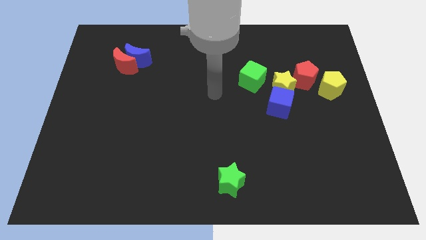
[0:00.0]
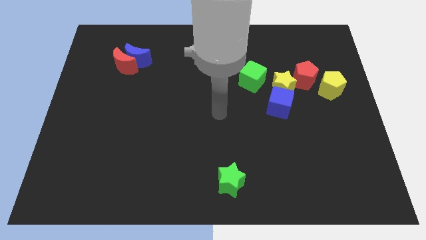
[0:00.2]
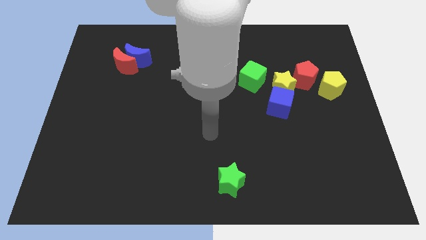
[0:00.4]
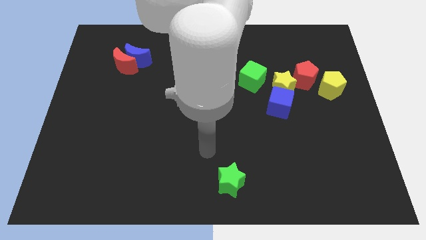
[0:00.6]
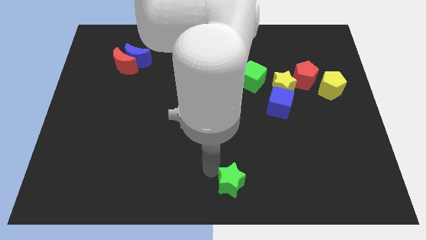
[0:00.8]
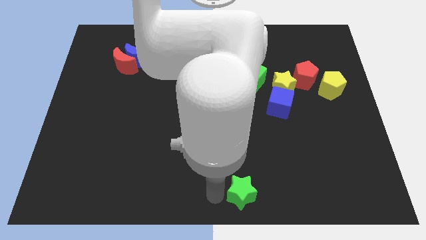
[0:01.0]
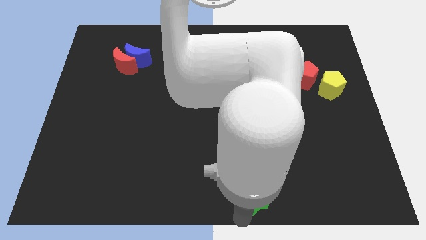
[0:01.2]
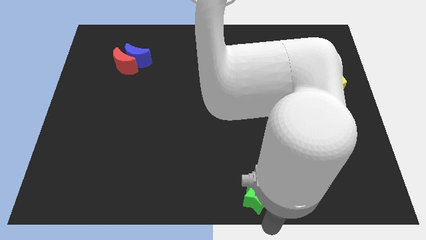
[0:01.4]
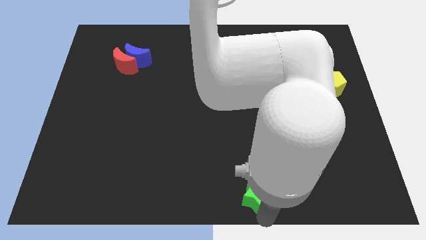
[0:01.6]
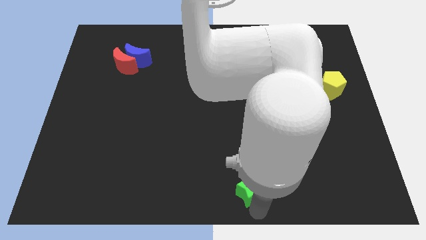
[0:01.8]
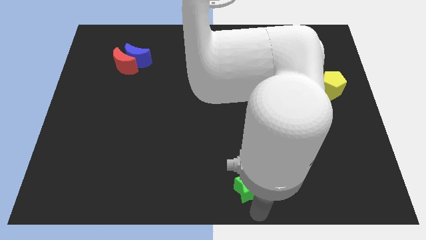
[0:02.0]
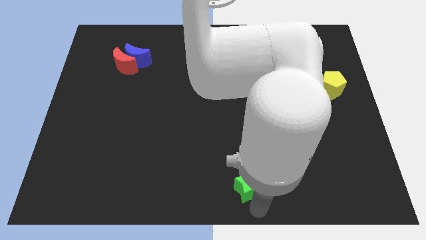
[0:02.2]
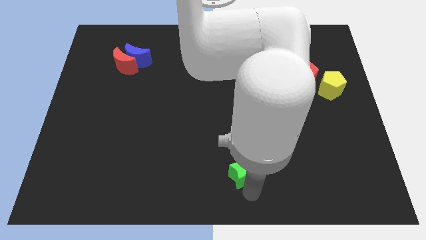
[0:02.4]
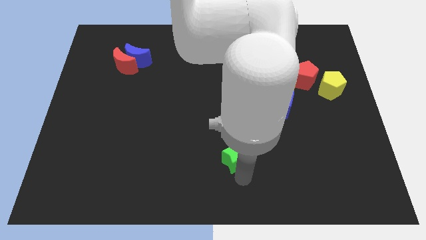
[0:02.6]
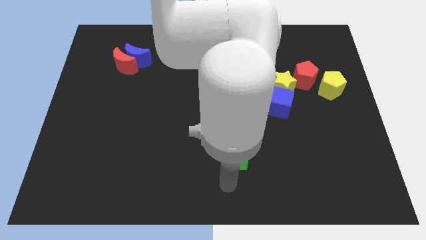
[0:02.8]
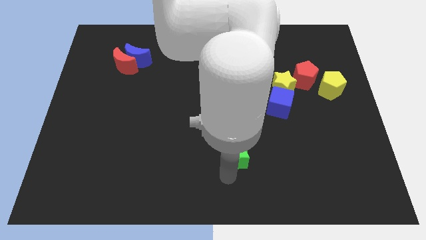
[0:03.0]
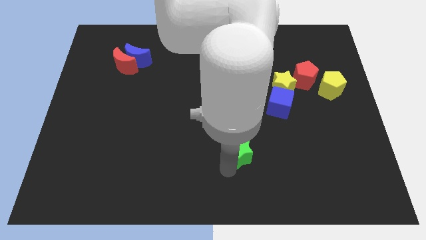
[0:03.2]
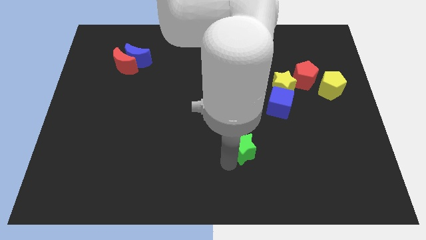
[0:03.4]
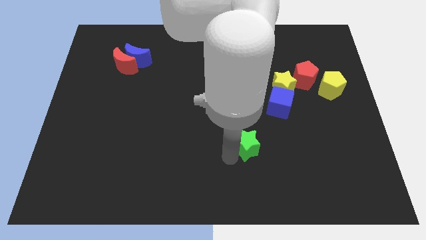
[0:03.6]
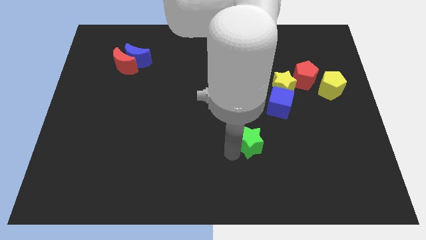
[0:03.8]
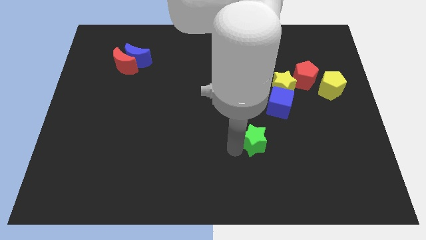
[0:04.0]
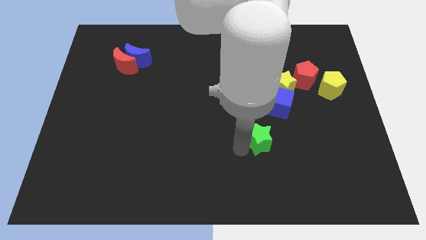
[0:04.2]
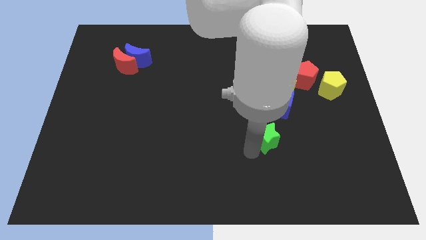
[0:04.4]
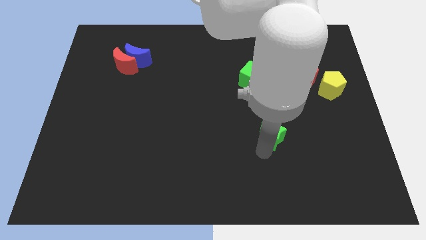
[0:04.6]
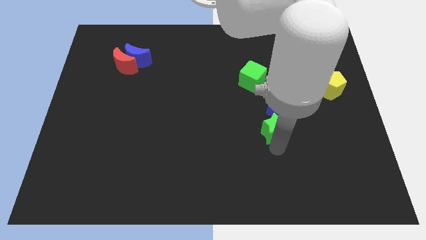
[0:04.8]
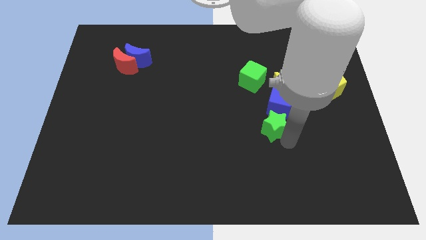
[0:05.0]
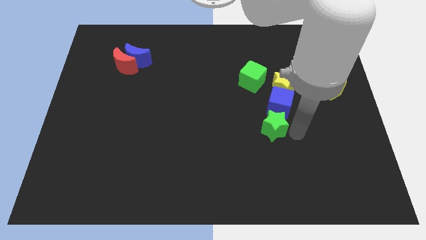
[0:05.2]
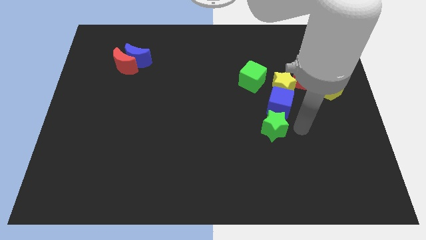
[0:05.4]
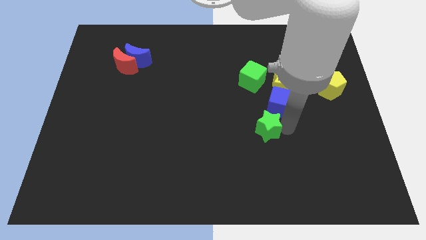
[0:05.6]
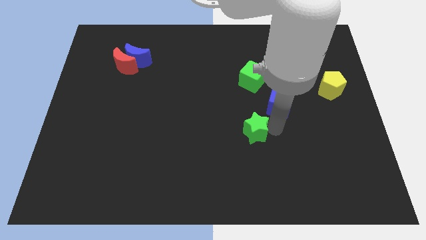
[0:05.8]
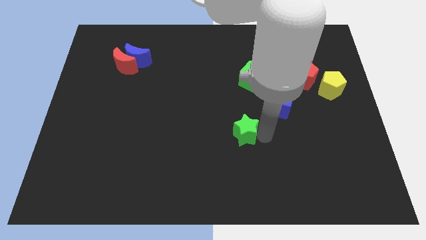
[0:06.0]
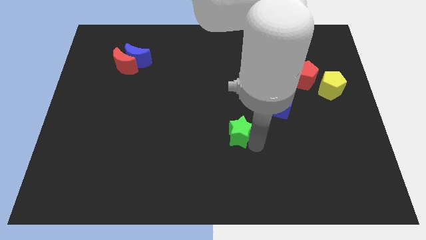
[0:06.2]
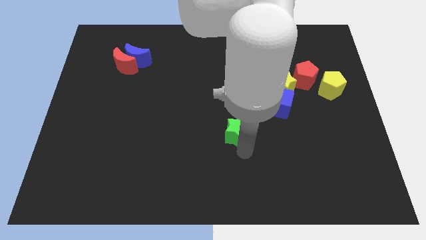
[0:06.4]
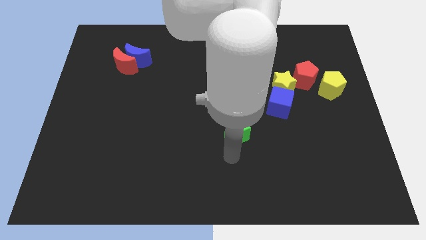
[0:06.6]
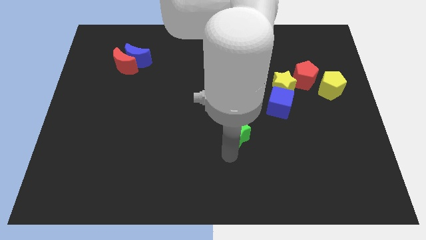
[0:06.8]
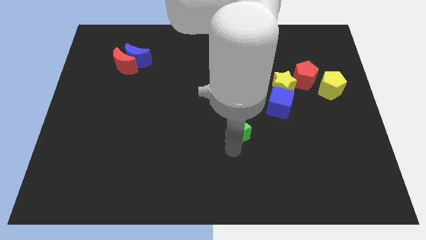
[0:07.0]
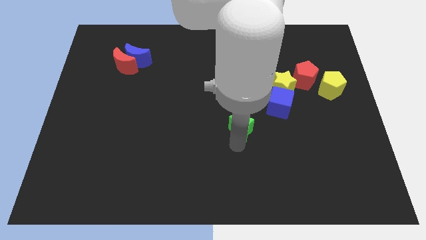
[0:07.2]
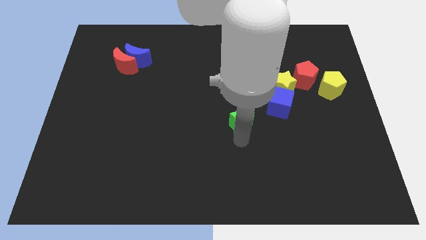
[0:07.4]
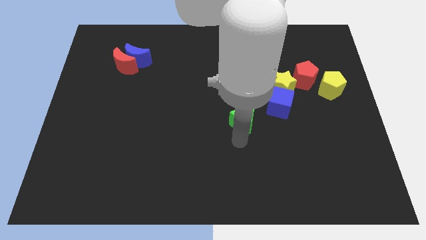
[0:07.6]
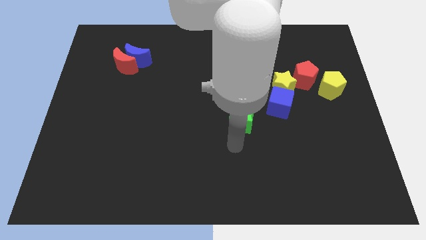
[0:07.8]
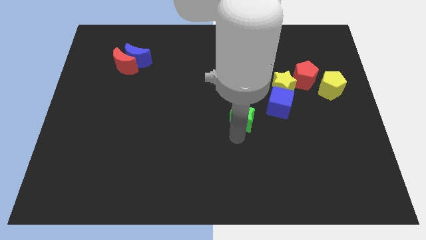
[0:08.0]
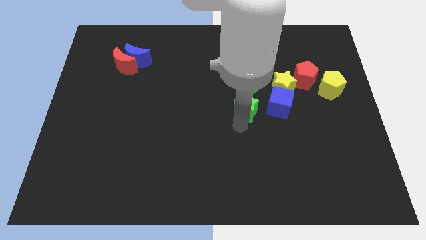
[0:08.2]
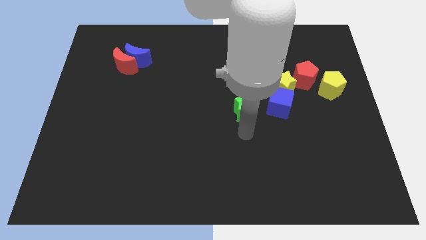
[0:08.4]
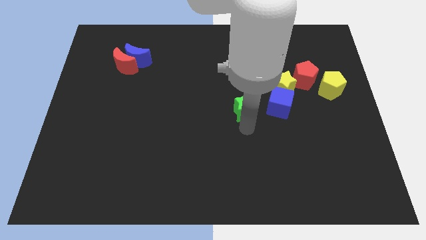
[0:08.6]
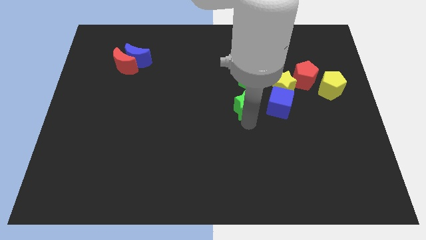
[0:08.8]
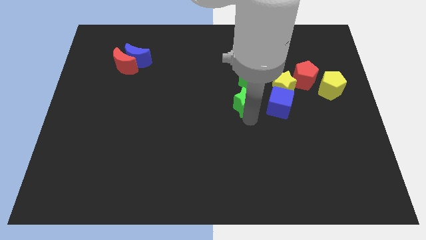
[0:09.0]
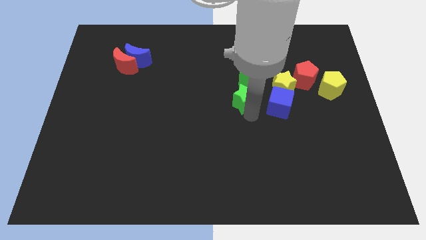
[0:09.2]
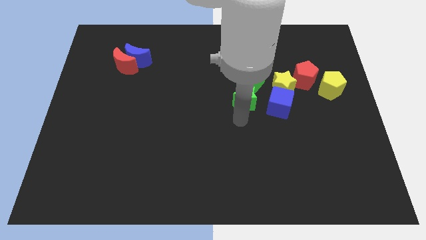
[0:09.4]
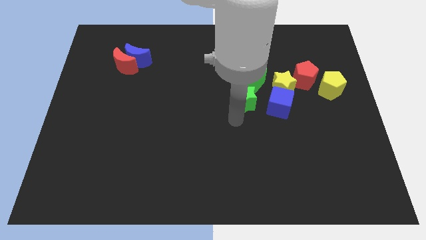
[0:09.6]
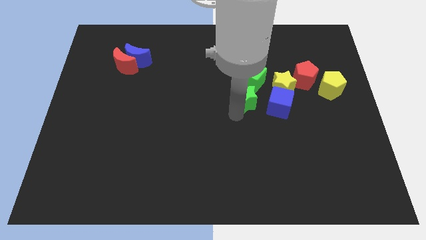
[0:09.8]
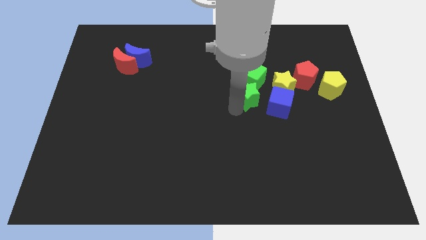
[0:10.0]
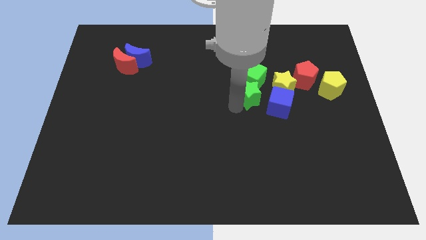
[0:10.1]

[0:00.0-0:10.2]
push the green star to the green cube

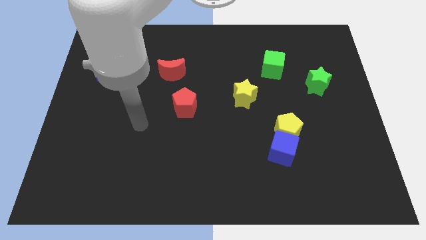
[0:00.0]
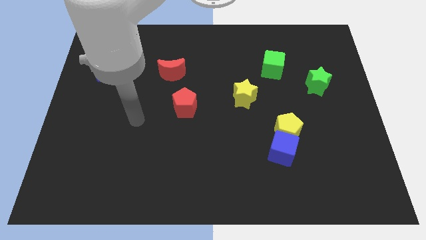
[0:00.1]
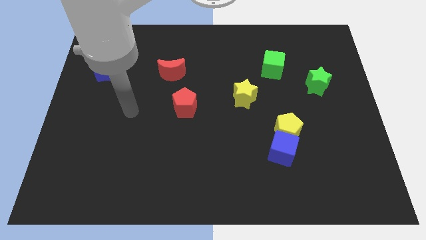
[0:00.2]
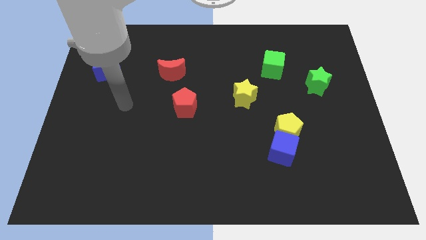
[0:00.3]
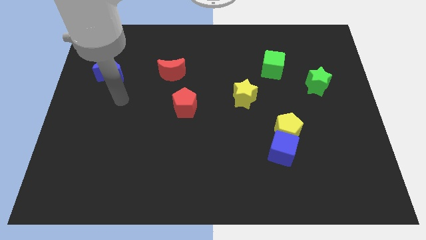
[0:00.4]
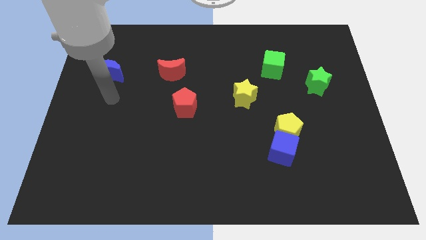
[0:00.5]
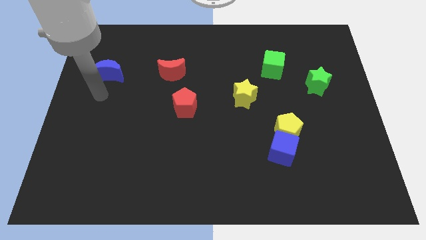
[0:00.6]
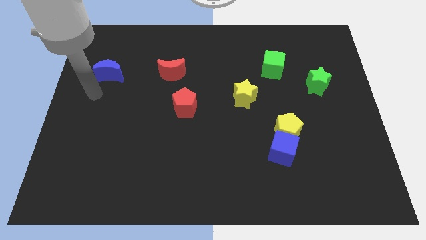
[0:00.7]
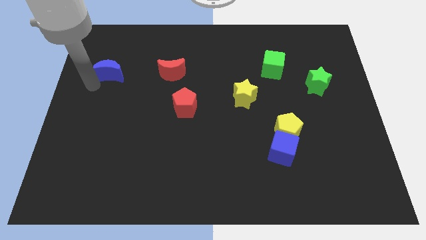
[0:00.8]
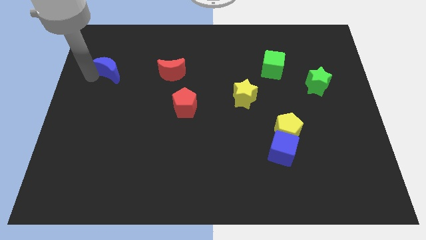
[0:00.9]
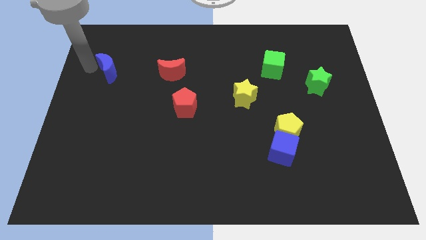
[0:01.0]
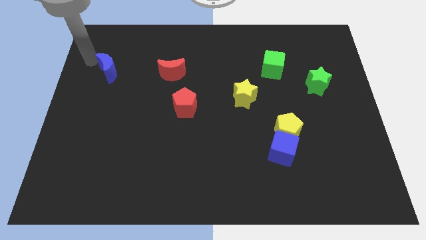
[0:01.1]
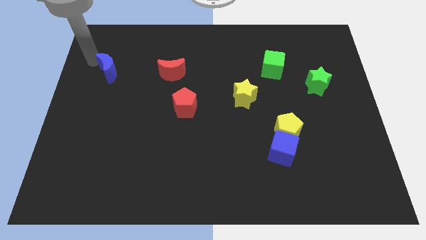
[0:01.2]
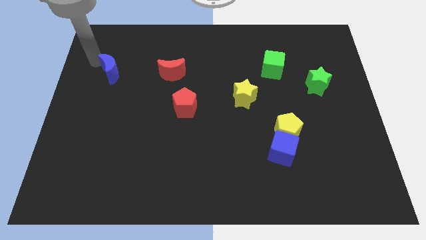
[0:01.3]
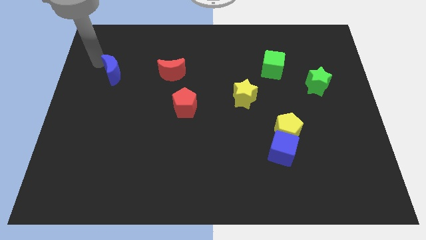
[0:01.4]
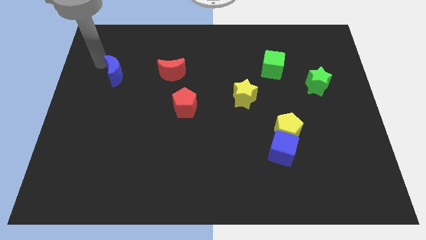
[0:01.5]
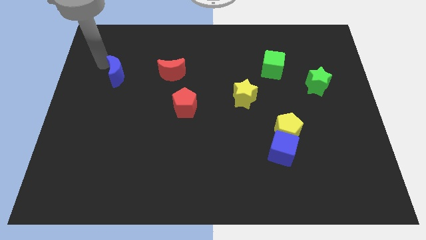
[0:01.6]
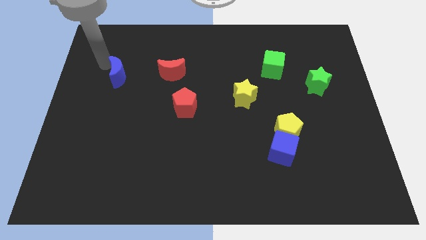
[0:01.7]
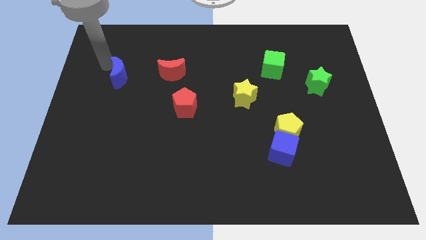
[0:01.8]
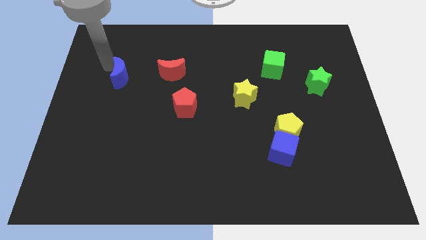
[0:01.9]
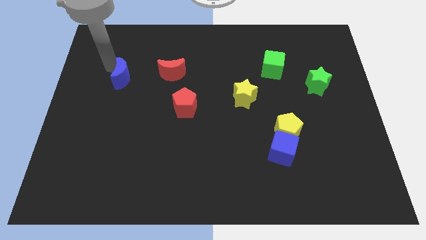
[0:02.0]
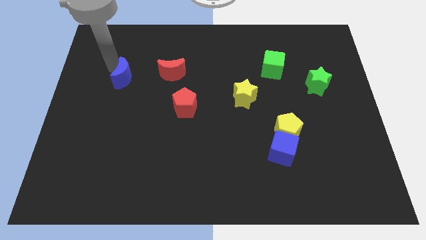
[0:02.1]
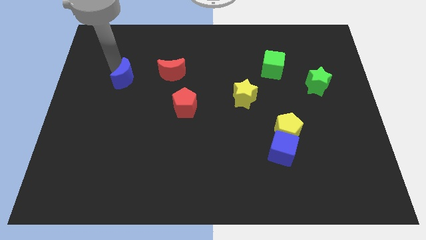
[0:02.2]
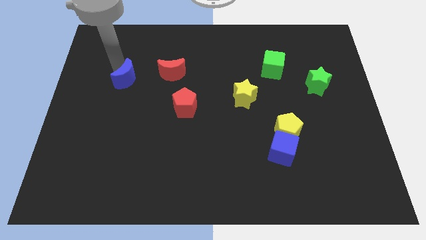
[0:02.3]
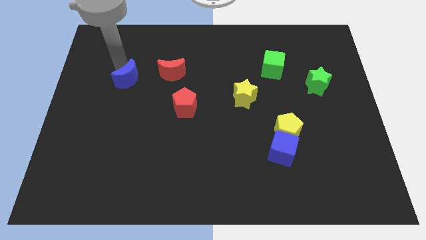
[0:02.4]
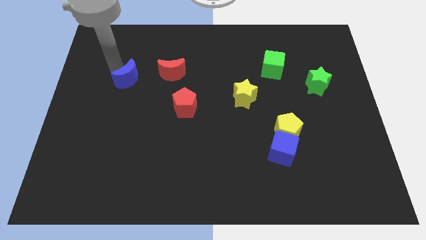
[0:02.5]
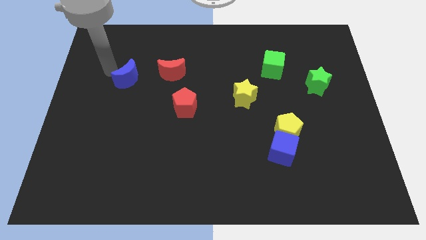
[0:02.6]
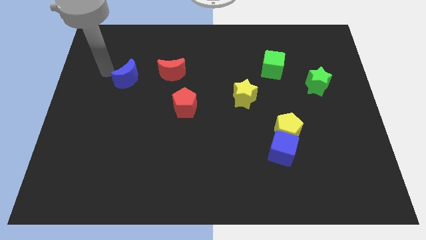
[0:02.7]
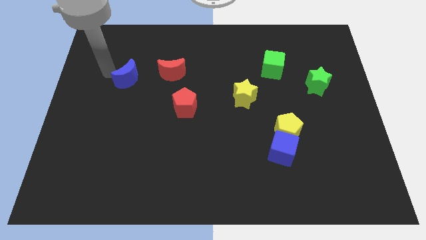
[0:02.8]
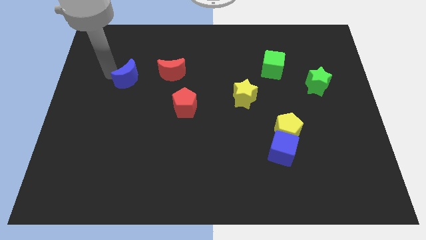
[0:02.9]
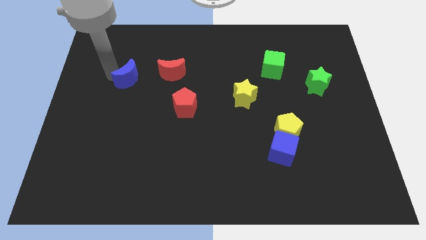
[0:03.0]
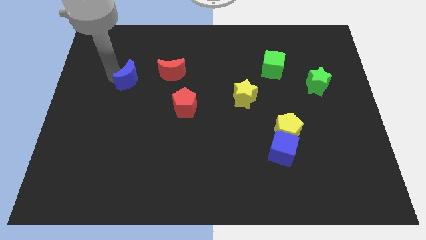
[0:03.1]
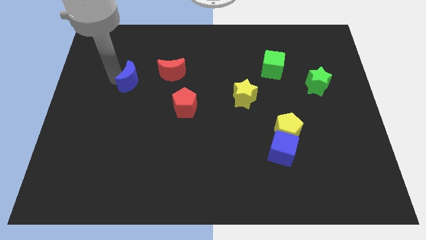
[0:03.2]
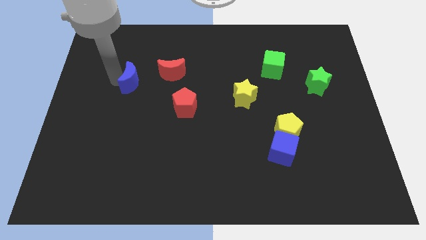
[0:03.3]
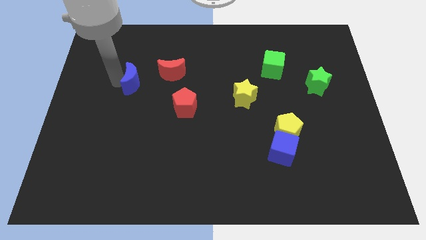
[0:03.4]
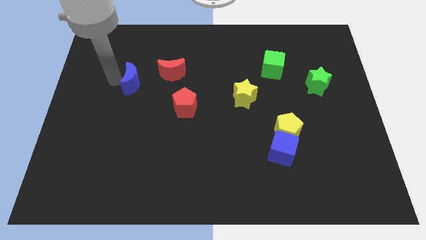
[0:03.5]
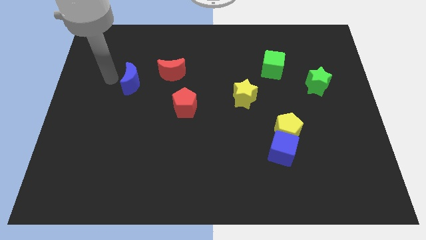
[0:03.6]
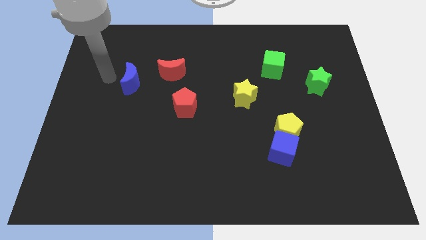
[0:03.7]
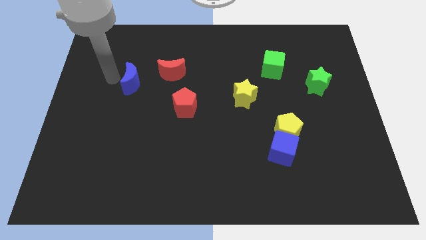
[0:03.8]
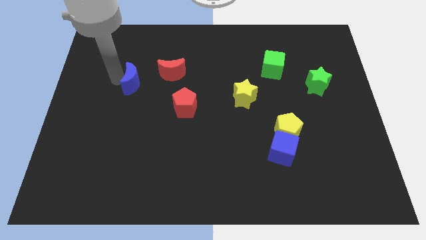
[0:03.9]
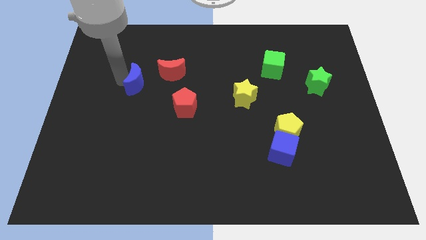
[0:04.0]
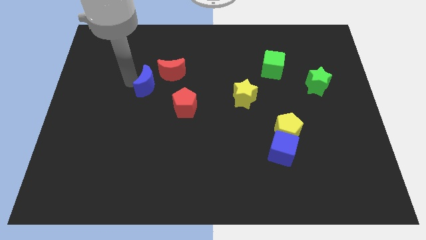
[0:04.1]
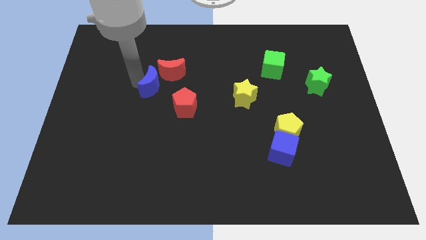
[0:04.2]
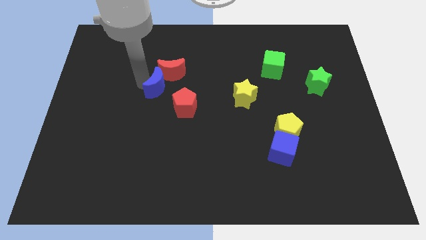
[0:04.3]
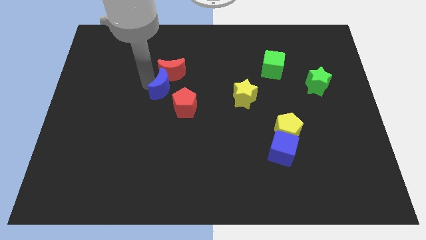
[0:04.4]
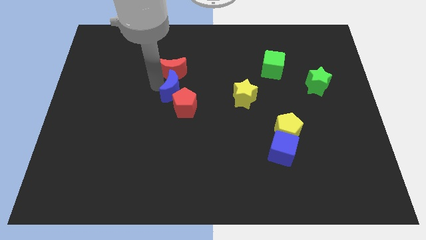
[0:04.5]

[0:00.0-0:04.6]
slide the blue moon close to the red pentagon
